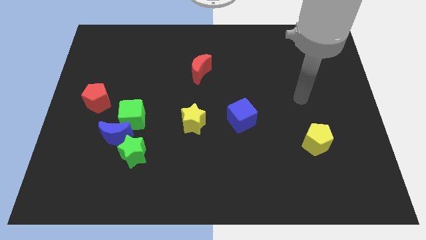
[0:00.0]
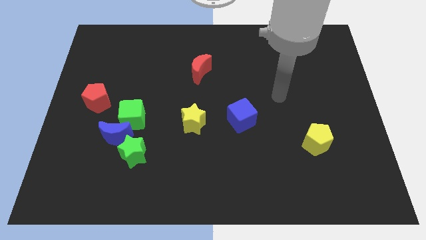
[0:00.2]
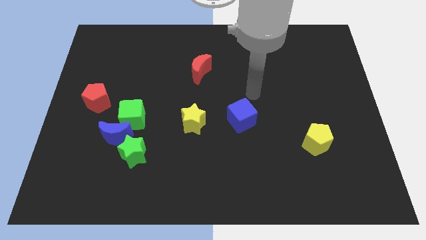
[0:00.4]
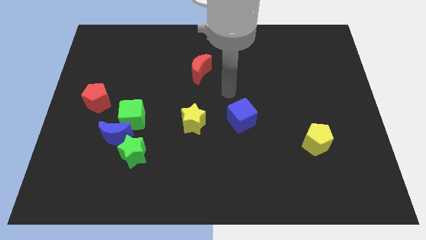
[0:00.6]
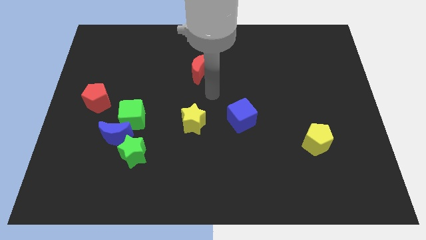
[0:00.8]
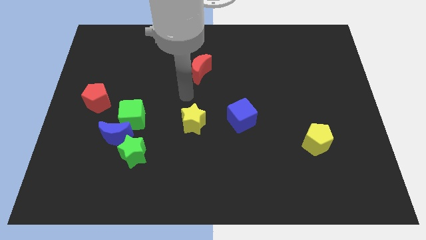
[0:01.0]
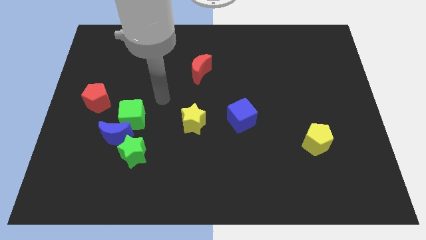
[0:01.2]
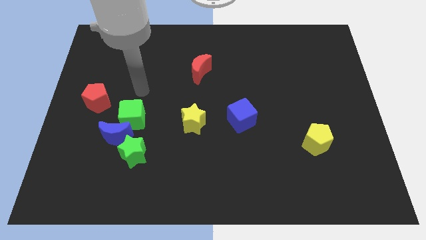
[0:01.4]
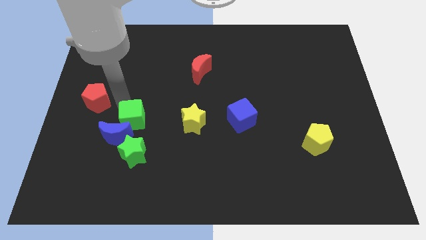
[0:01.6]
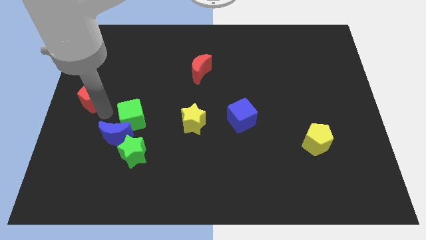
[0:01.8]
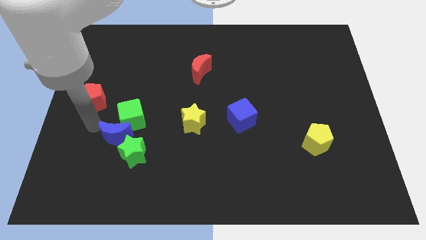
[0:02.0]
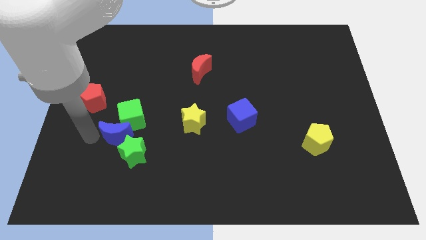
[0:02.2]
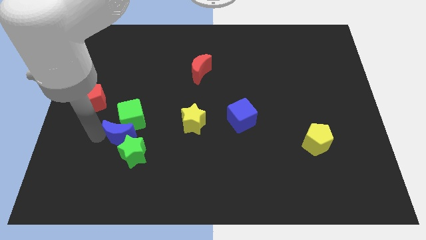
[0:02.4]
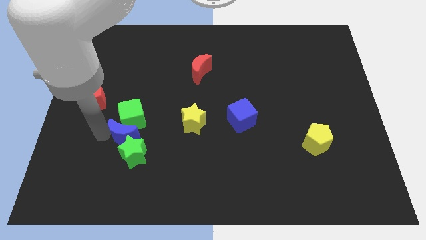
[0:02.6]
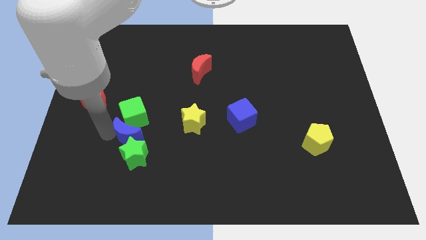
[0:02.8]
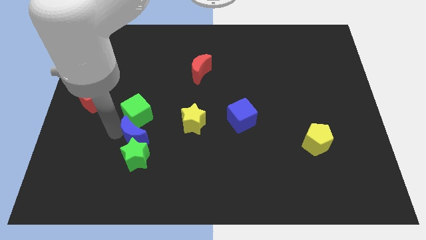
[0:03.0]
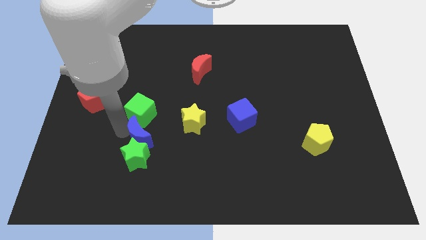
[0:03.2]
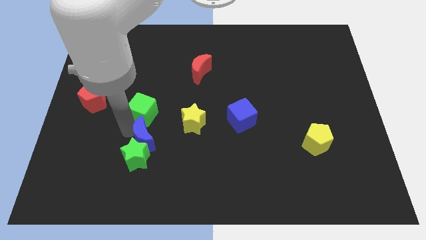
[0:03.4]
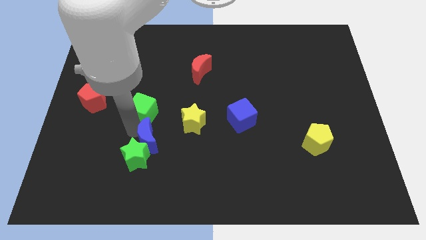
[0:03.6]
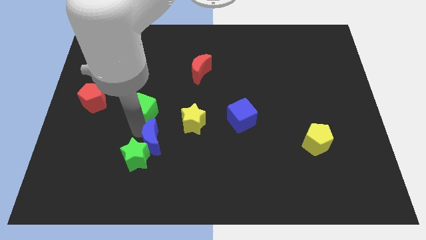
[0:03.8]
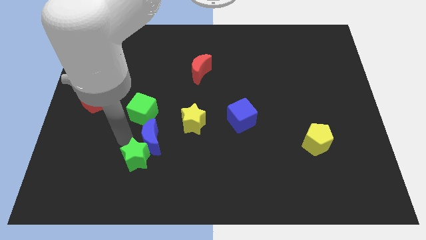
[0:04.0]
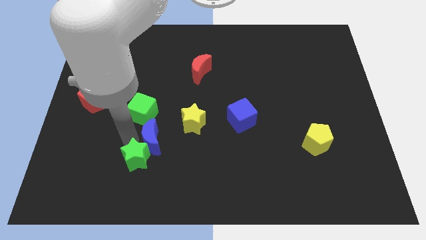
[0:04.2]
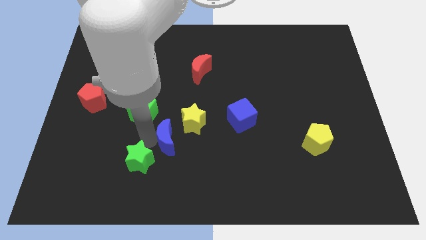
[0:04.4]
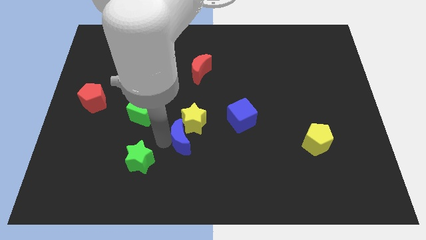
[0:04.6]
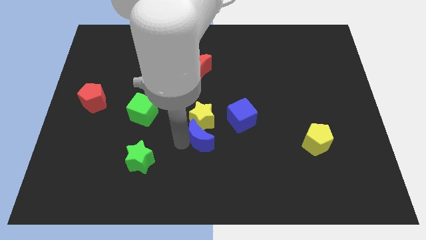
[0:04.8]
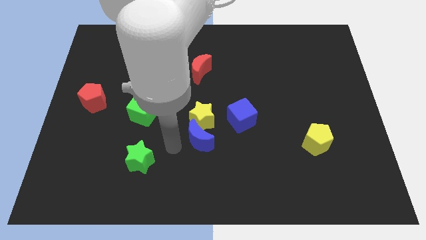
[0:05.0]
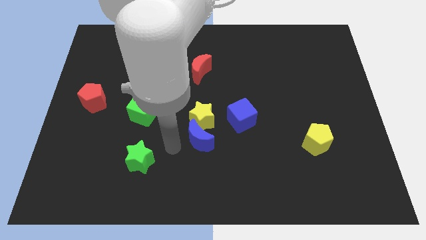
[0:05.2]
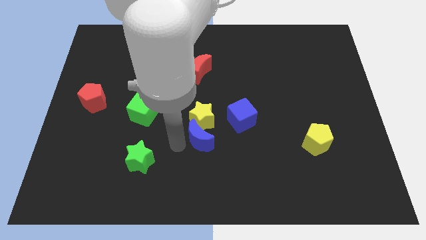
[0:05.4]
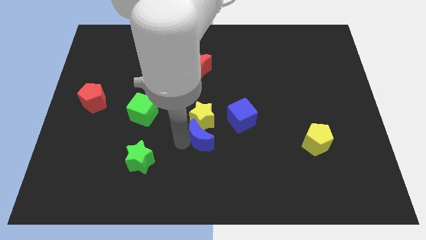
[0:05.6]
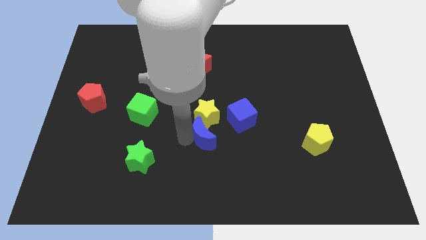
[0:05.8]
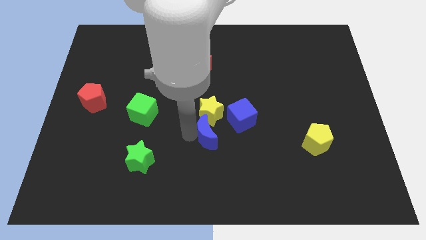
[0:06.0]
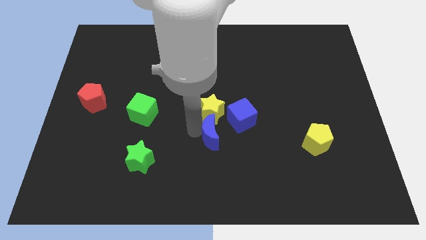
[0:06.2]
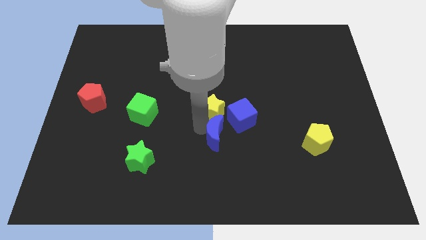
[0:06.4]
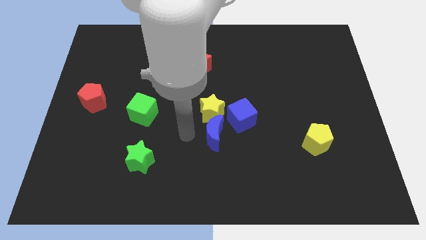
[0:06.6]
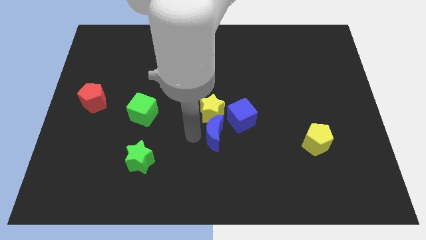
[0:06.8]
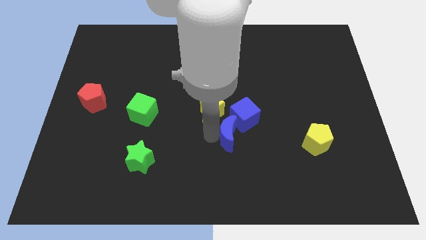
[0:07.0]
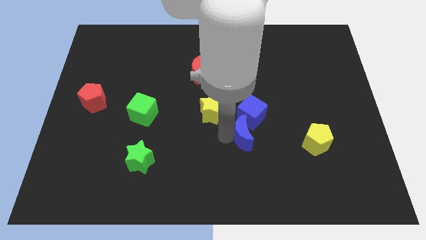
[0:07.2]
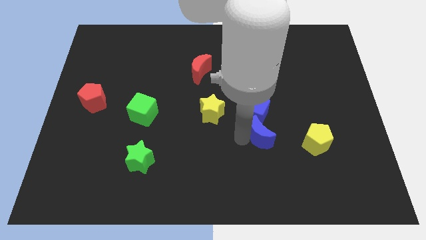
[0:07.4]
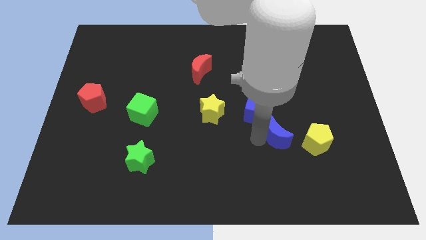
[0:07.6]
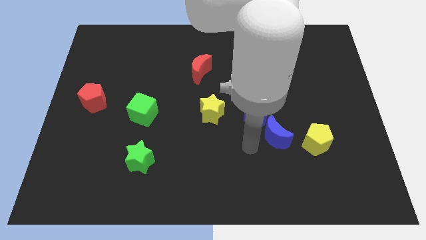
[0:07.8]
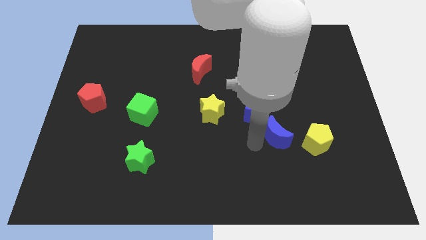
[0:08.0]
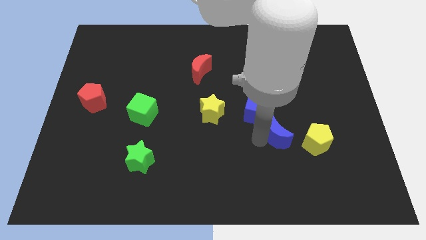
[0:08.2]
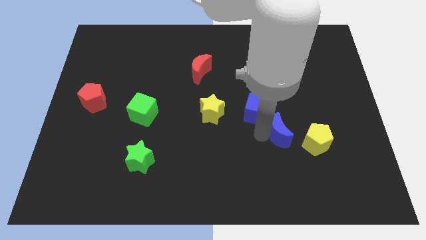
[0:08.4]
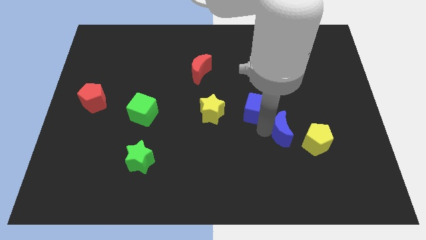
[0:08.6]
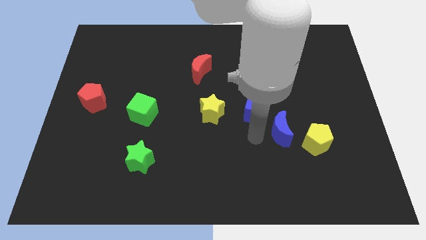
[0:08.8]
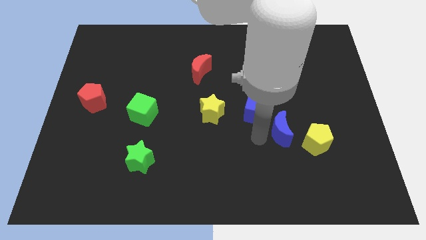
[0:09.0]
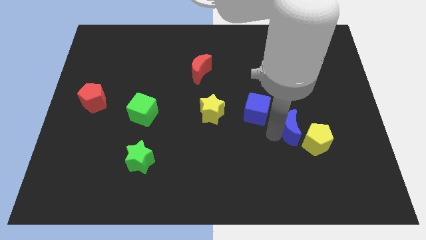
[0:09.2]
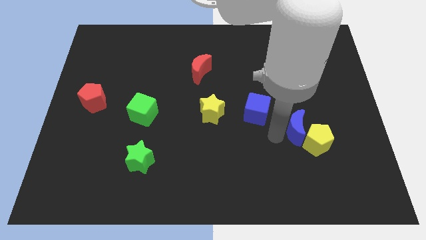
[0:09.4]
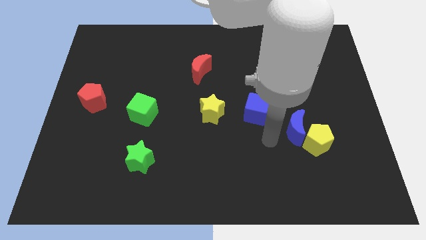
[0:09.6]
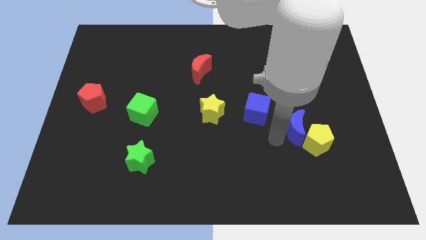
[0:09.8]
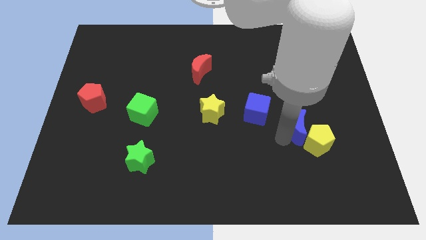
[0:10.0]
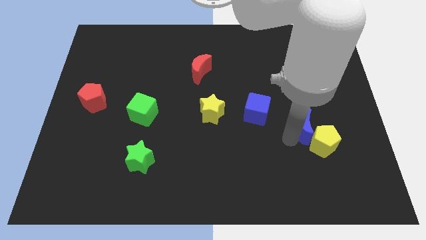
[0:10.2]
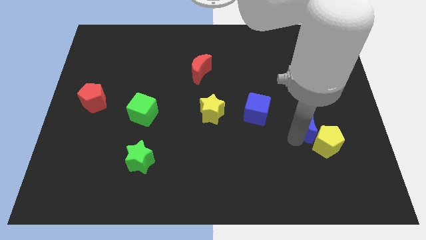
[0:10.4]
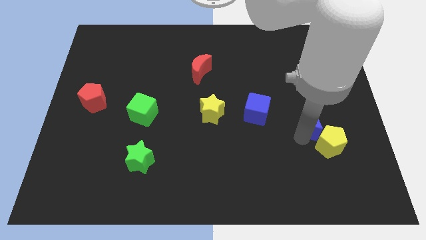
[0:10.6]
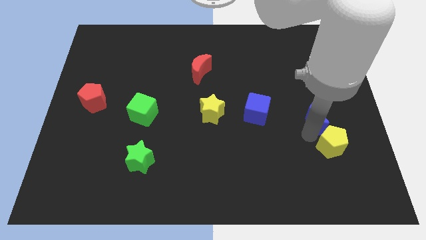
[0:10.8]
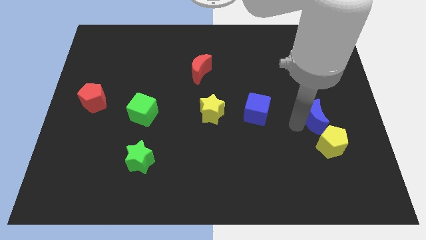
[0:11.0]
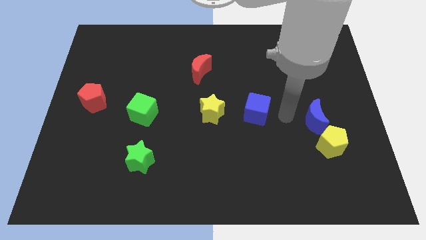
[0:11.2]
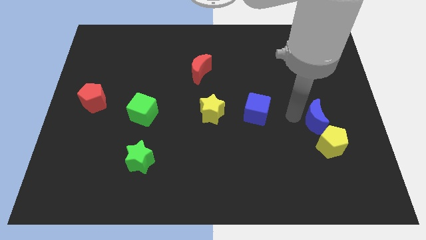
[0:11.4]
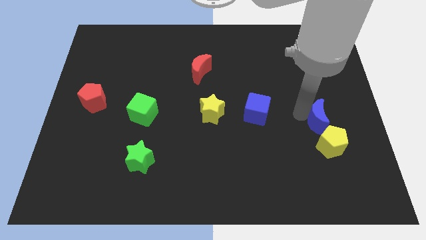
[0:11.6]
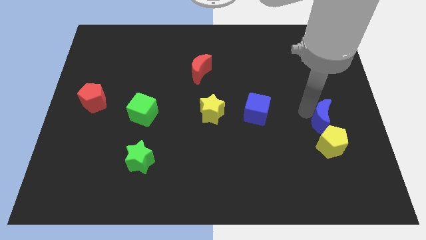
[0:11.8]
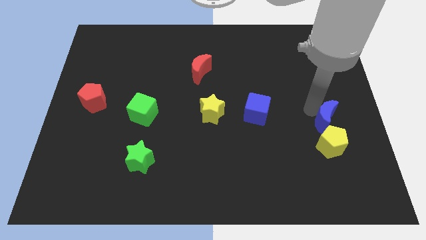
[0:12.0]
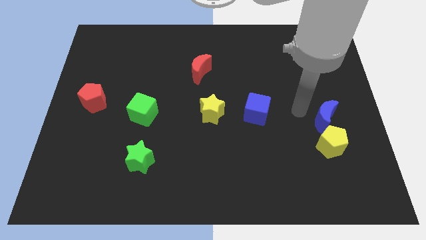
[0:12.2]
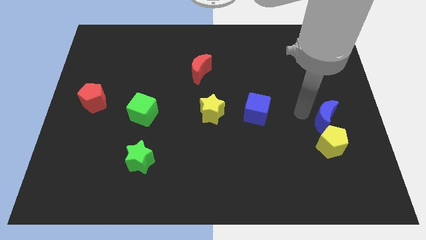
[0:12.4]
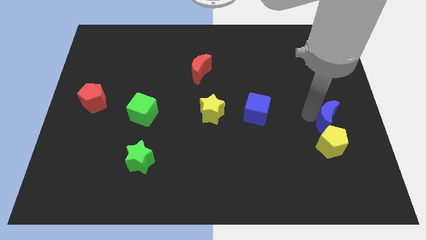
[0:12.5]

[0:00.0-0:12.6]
push the blue moon to the top right of the yellow pentagon

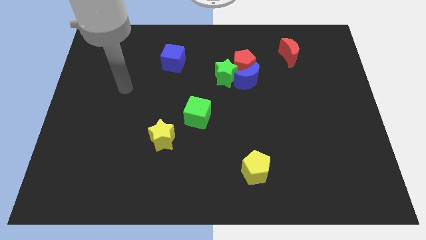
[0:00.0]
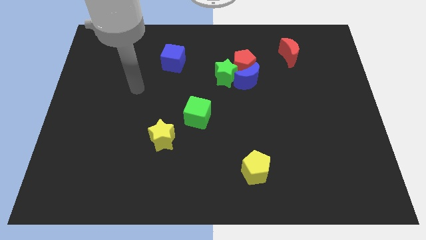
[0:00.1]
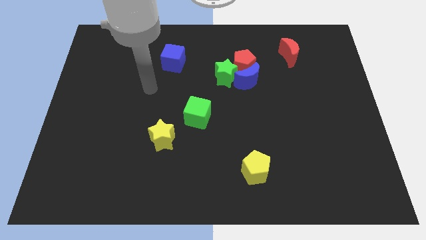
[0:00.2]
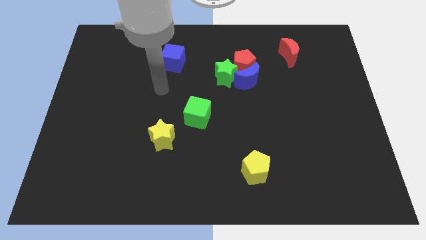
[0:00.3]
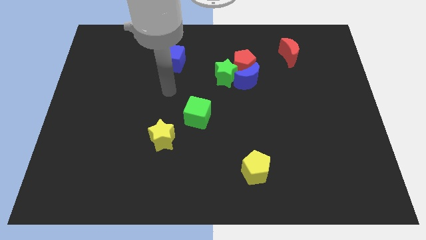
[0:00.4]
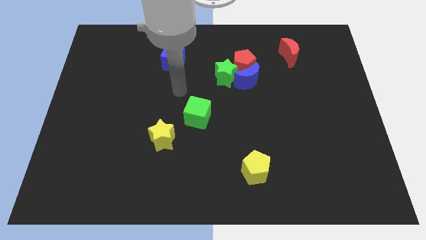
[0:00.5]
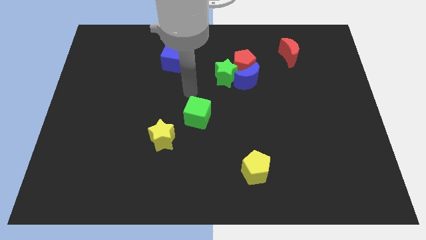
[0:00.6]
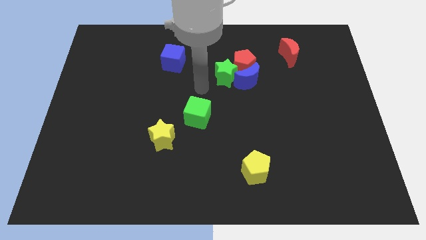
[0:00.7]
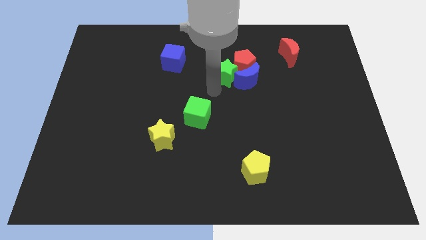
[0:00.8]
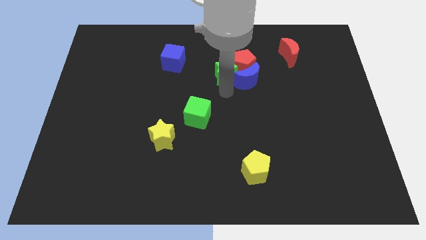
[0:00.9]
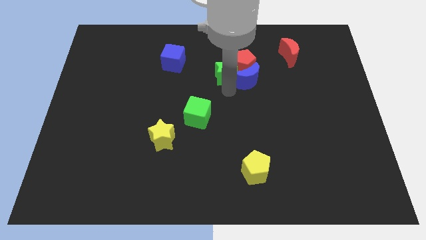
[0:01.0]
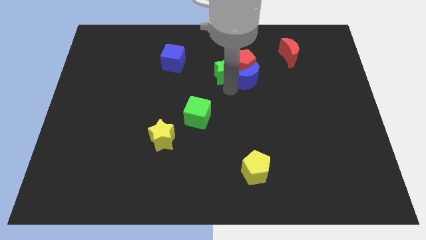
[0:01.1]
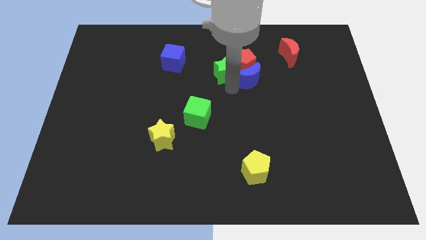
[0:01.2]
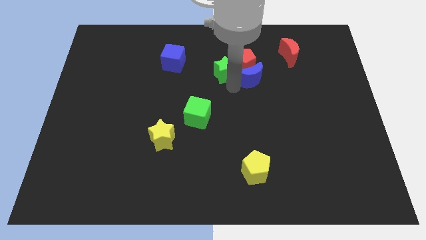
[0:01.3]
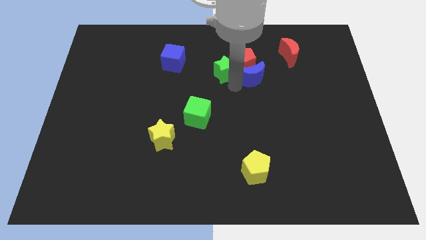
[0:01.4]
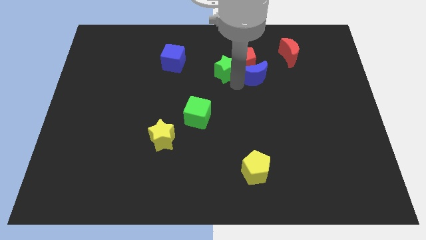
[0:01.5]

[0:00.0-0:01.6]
slide the blue moon to the bottom left of the red moon
